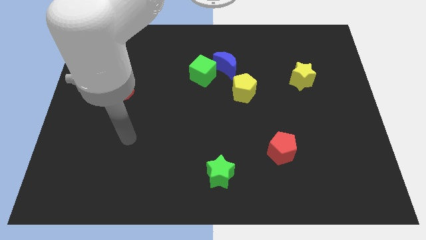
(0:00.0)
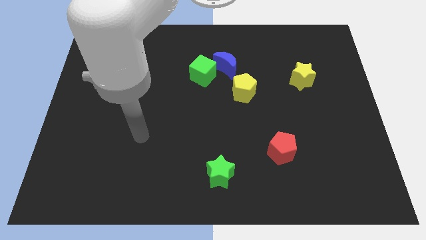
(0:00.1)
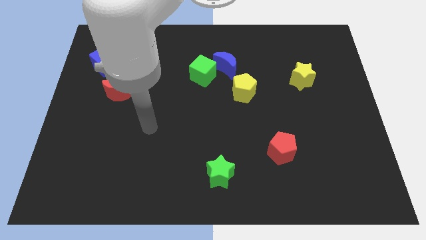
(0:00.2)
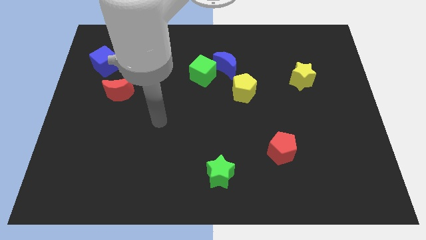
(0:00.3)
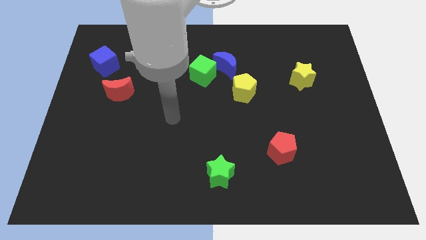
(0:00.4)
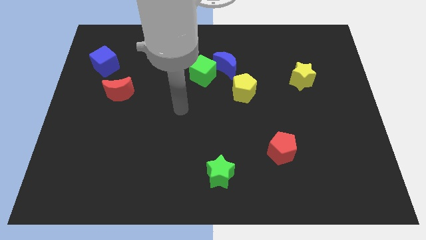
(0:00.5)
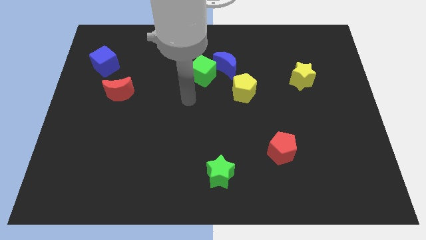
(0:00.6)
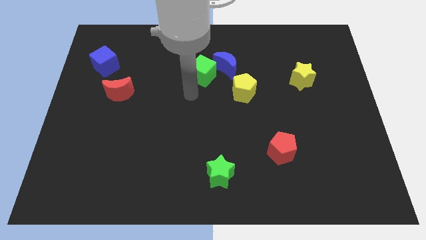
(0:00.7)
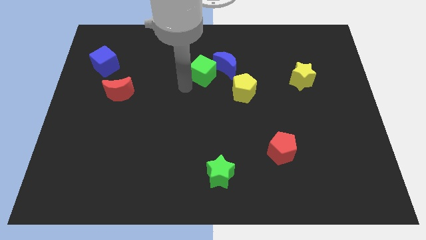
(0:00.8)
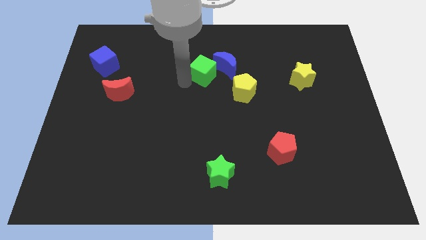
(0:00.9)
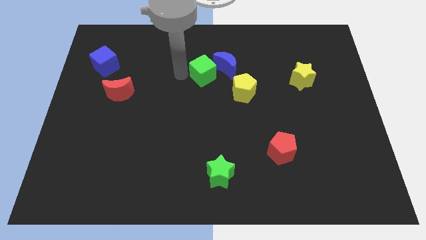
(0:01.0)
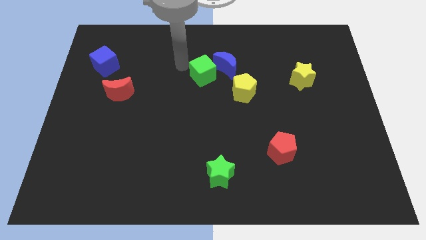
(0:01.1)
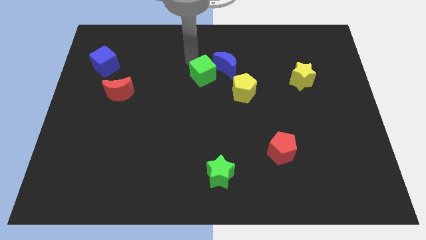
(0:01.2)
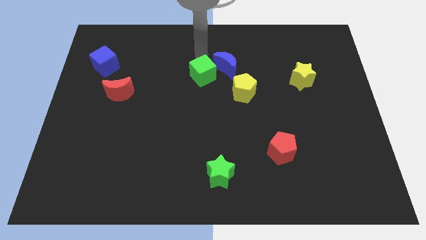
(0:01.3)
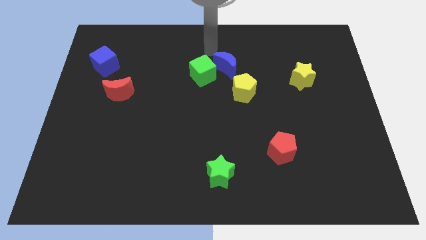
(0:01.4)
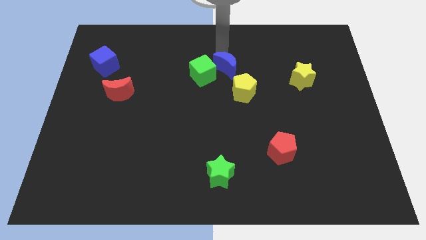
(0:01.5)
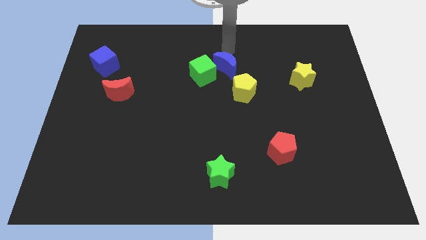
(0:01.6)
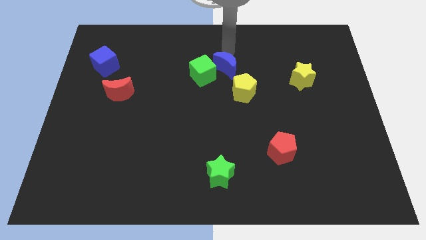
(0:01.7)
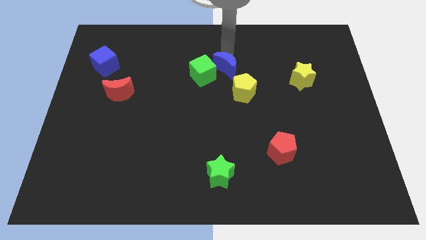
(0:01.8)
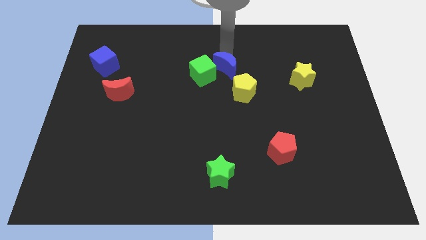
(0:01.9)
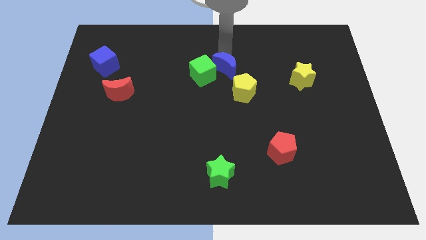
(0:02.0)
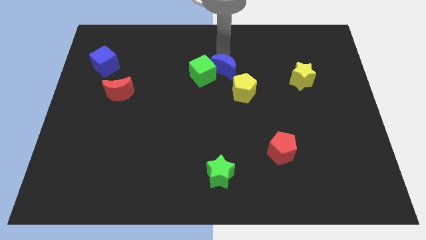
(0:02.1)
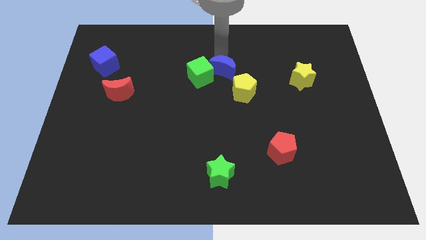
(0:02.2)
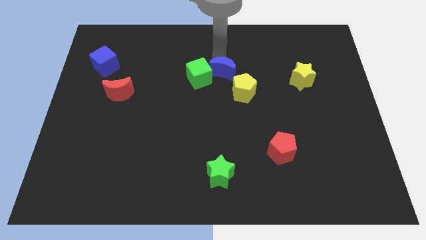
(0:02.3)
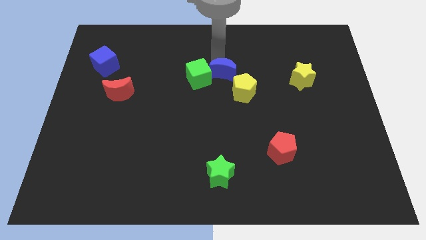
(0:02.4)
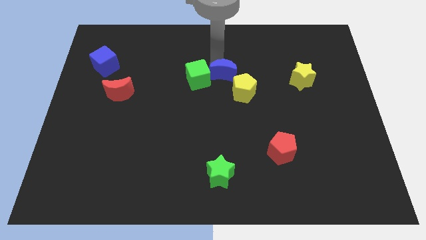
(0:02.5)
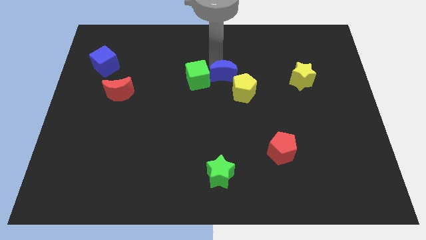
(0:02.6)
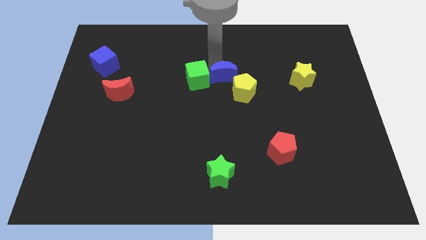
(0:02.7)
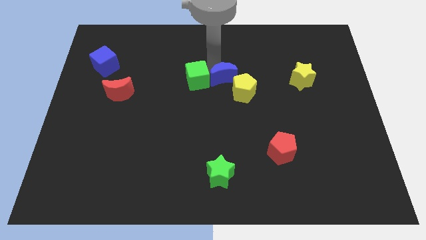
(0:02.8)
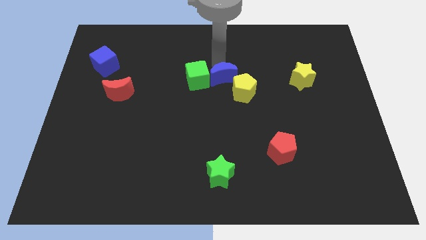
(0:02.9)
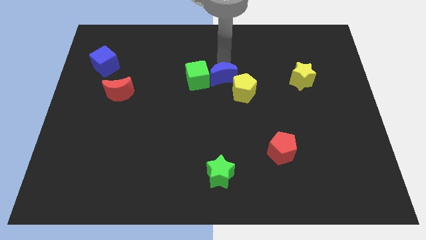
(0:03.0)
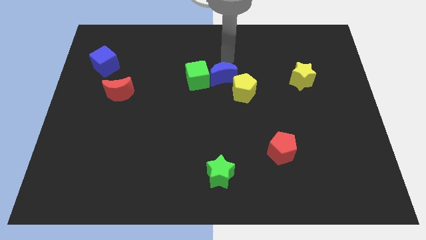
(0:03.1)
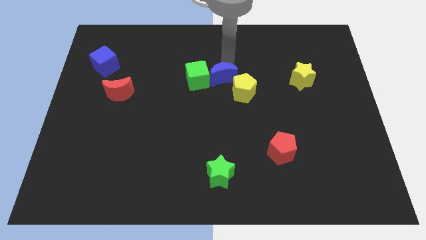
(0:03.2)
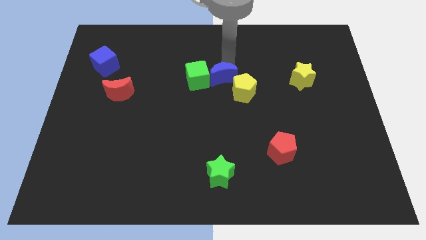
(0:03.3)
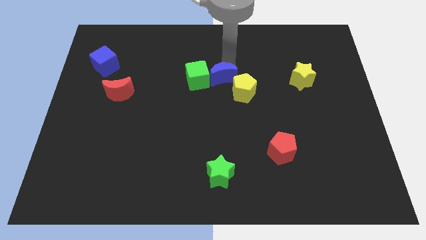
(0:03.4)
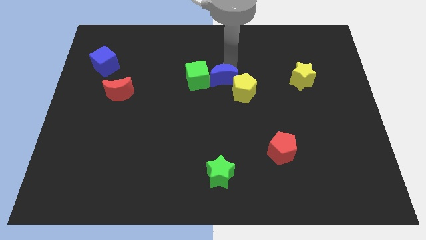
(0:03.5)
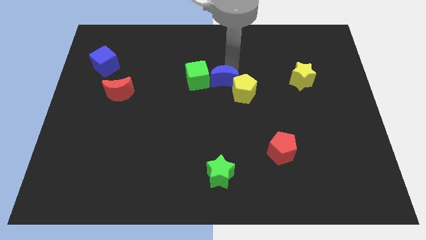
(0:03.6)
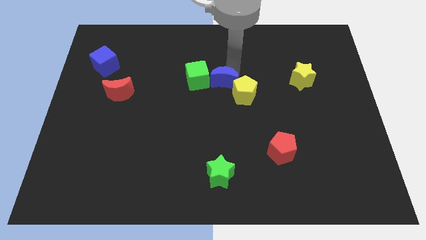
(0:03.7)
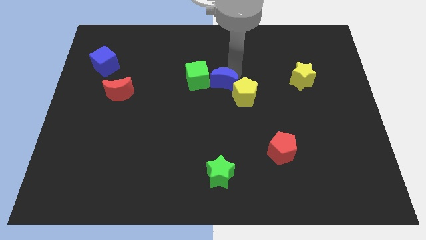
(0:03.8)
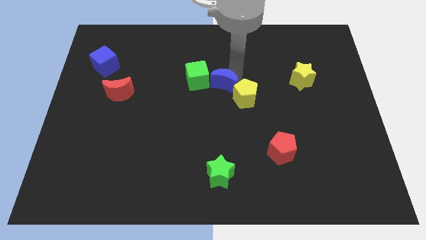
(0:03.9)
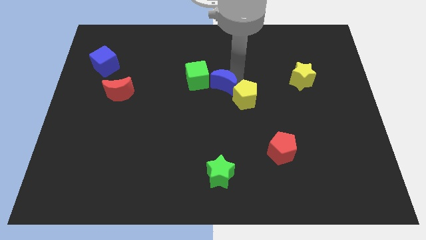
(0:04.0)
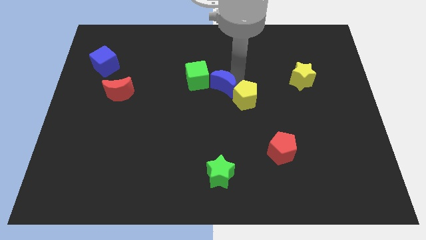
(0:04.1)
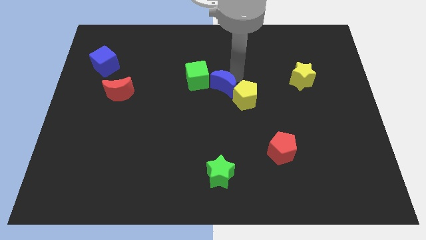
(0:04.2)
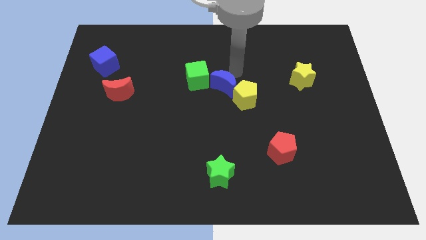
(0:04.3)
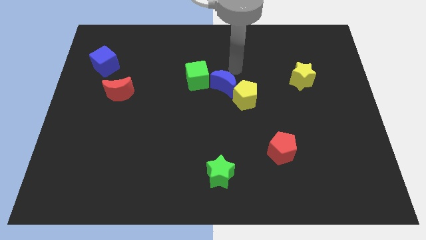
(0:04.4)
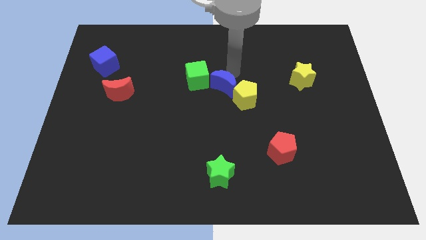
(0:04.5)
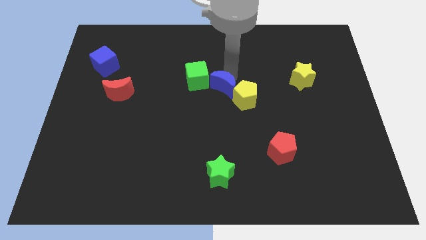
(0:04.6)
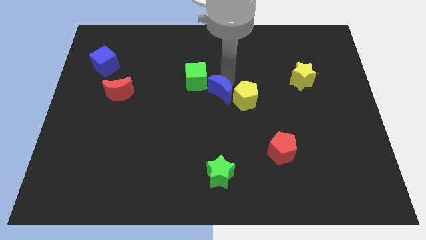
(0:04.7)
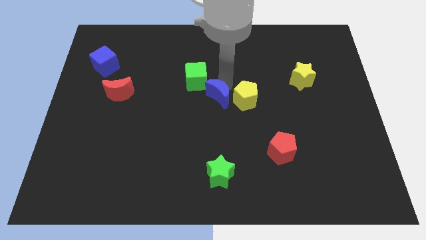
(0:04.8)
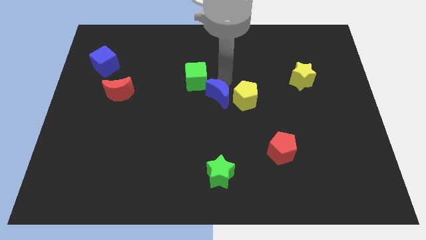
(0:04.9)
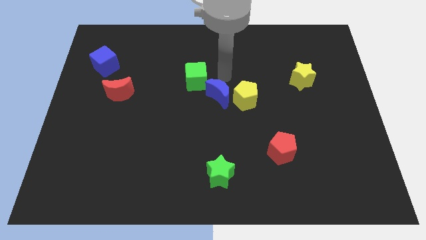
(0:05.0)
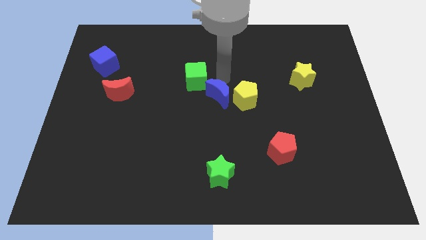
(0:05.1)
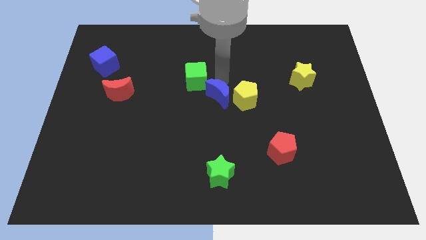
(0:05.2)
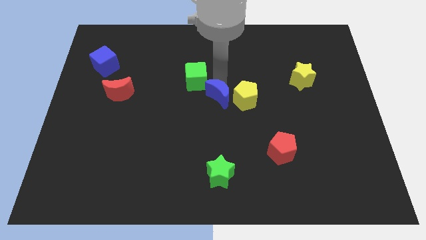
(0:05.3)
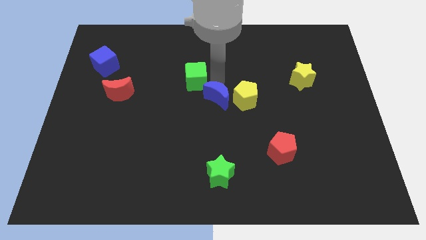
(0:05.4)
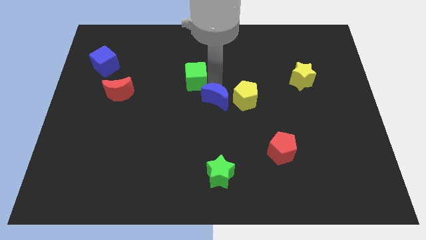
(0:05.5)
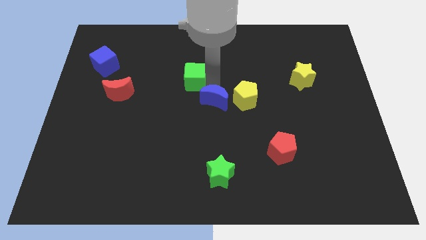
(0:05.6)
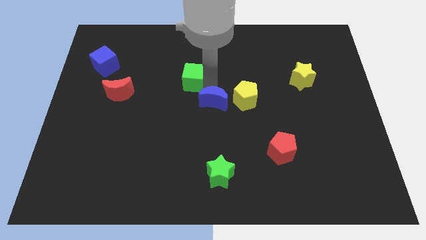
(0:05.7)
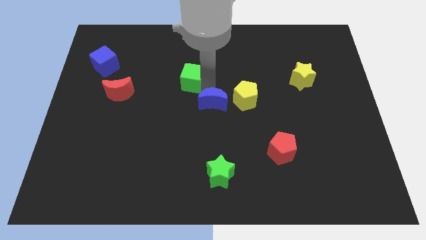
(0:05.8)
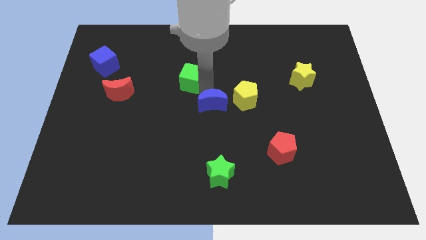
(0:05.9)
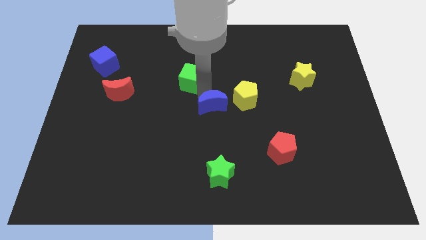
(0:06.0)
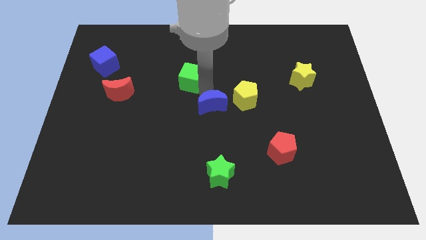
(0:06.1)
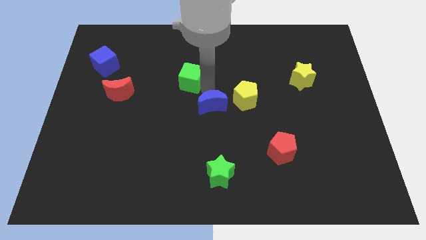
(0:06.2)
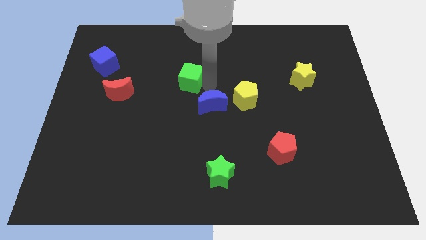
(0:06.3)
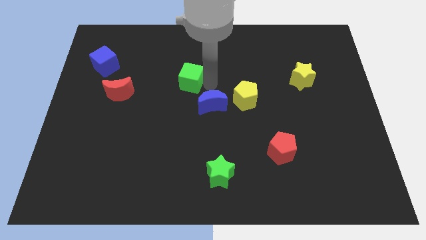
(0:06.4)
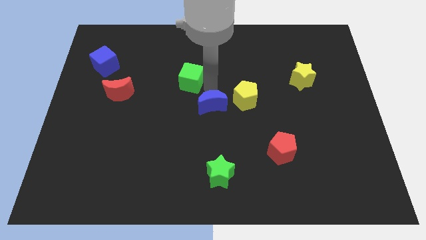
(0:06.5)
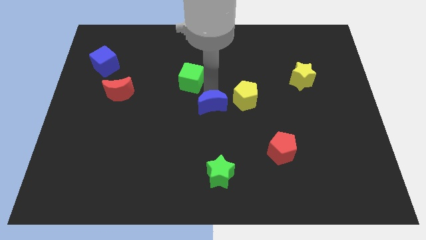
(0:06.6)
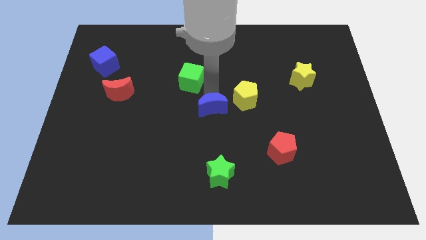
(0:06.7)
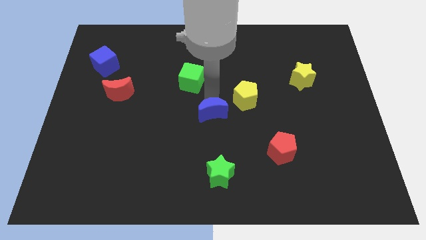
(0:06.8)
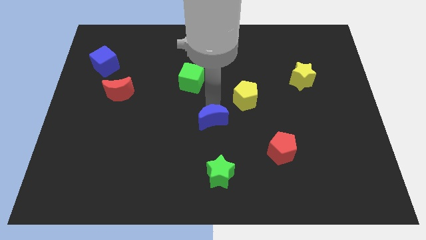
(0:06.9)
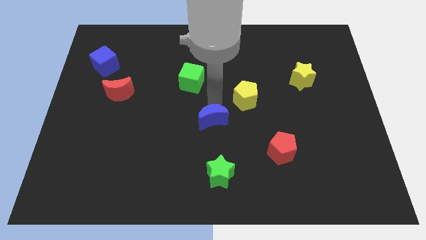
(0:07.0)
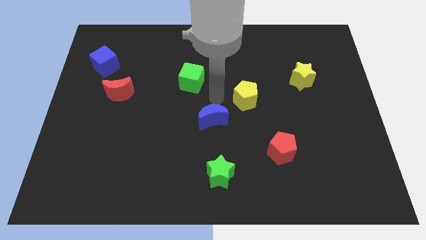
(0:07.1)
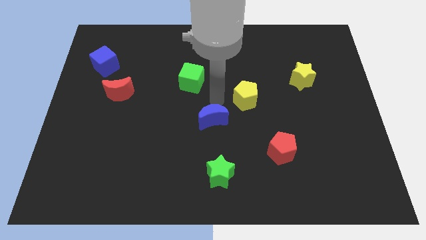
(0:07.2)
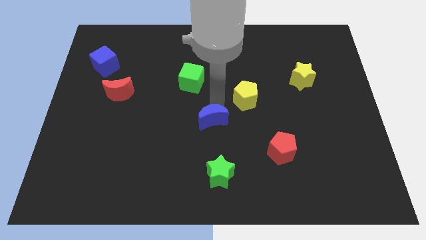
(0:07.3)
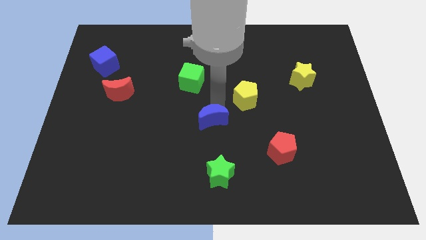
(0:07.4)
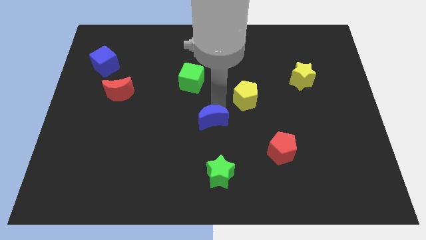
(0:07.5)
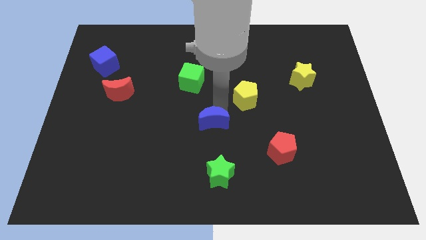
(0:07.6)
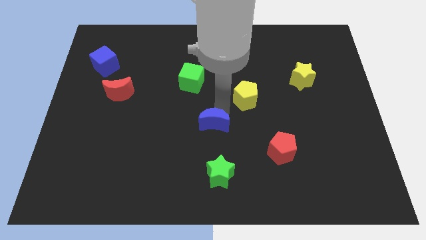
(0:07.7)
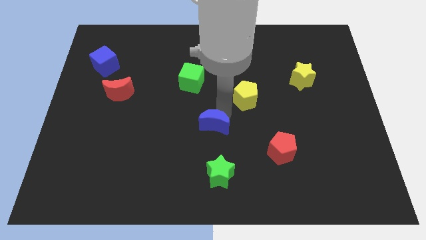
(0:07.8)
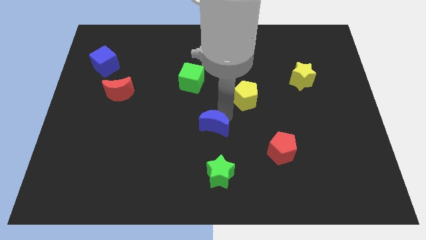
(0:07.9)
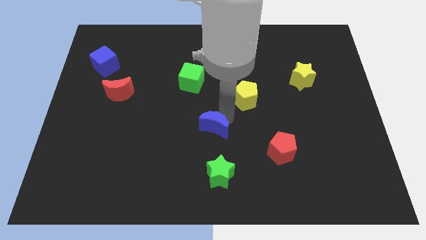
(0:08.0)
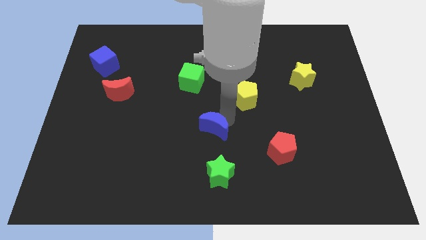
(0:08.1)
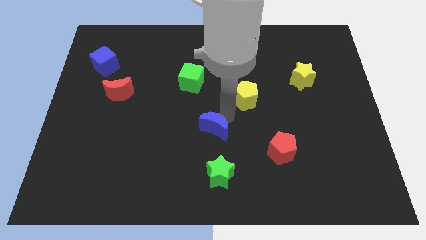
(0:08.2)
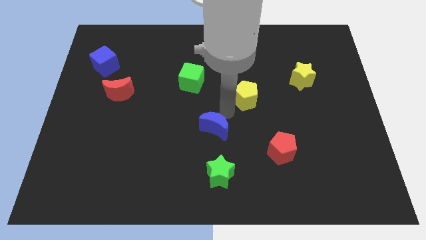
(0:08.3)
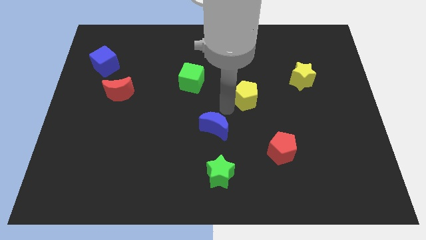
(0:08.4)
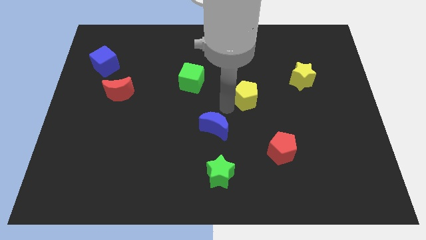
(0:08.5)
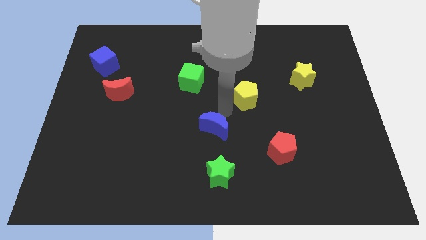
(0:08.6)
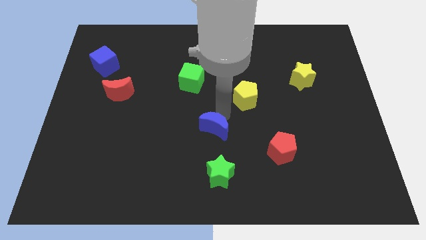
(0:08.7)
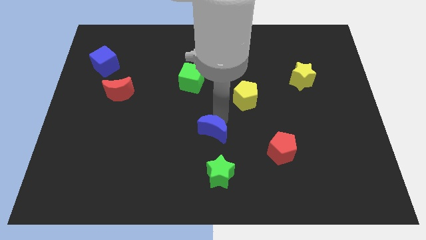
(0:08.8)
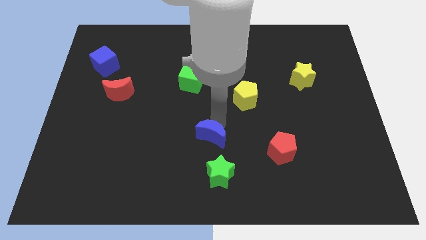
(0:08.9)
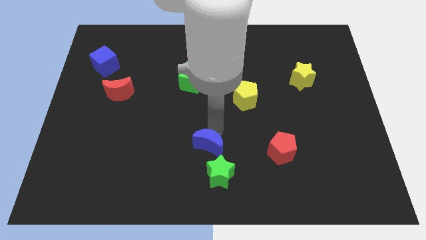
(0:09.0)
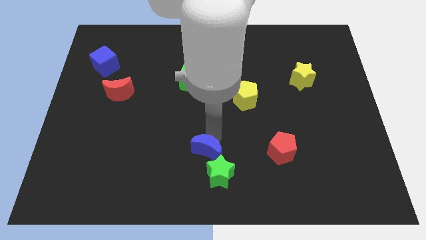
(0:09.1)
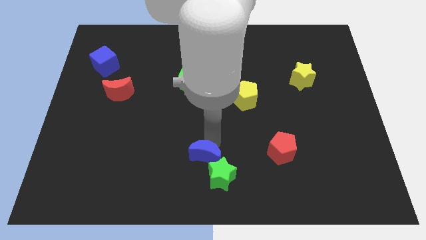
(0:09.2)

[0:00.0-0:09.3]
move the blue moon to the bottom side
